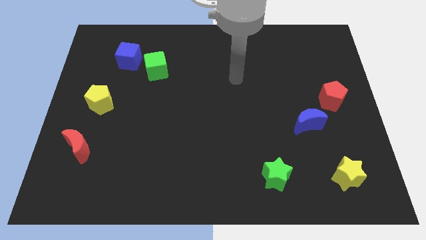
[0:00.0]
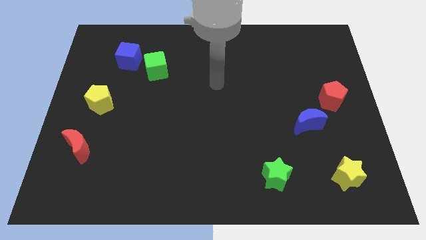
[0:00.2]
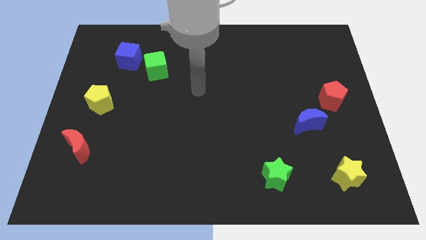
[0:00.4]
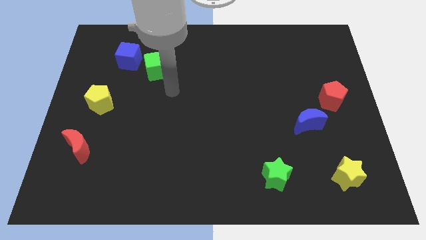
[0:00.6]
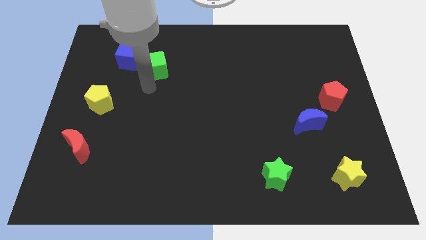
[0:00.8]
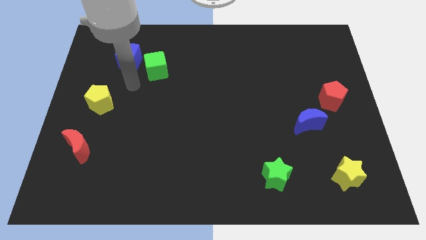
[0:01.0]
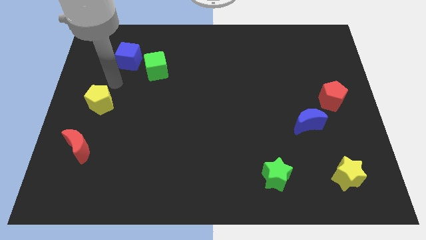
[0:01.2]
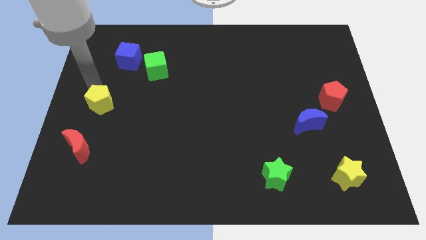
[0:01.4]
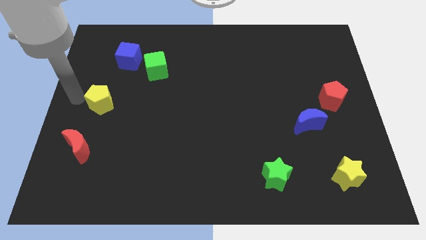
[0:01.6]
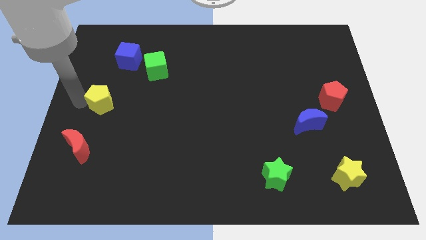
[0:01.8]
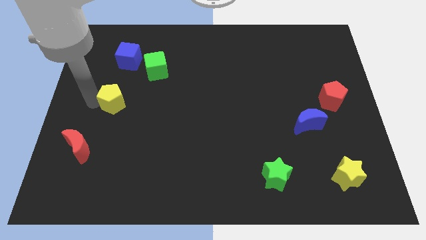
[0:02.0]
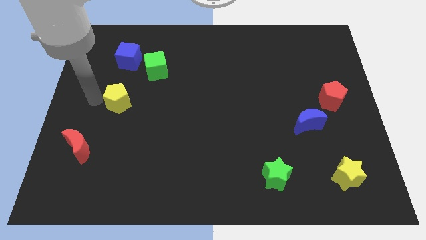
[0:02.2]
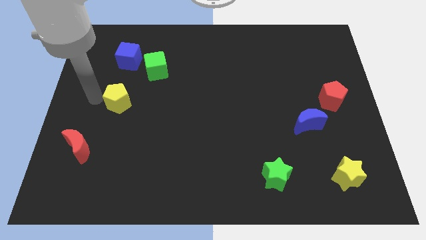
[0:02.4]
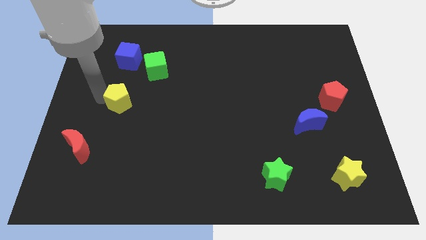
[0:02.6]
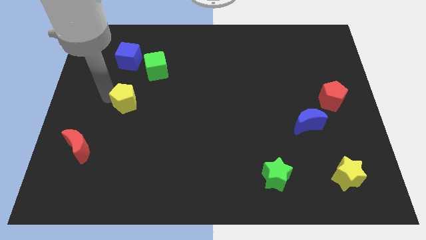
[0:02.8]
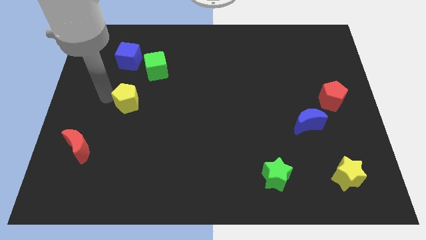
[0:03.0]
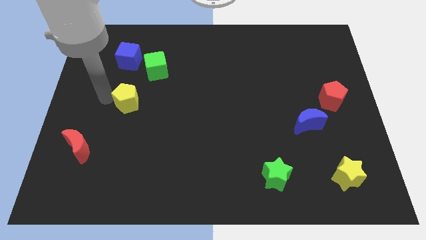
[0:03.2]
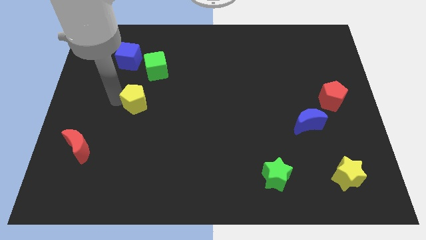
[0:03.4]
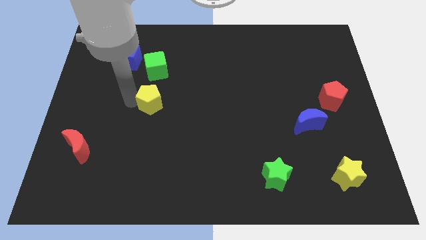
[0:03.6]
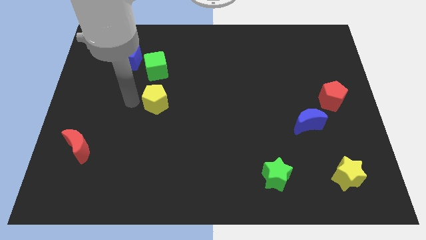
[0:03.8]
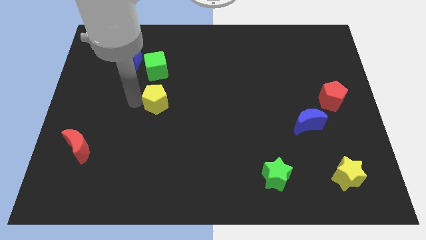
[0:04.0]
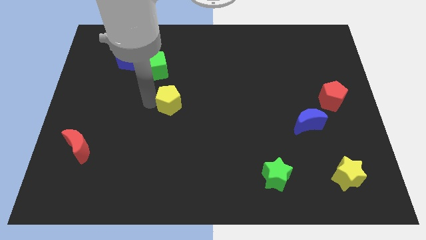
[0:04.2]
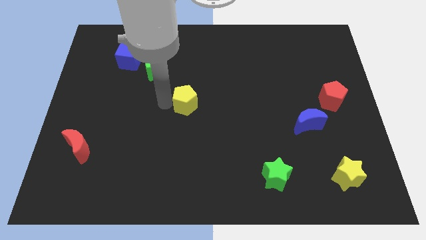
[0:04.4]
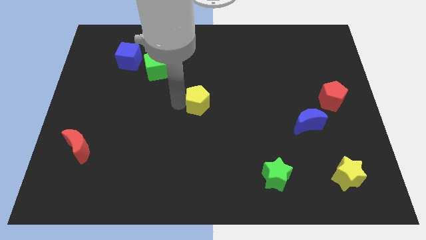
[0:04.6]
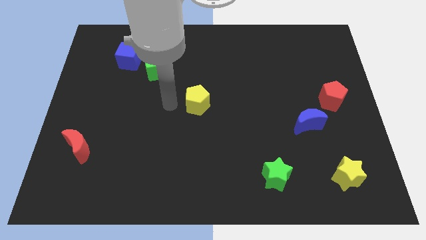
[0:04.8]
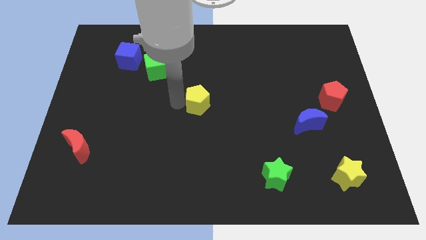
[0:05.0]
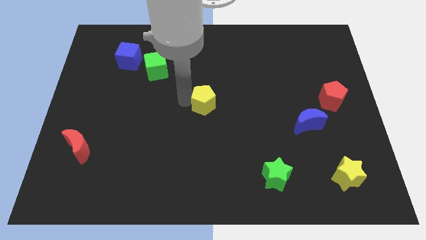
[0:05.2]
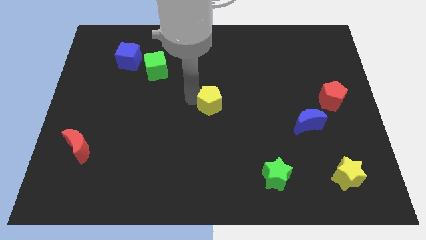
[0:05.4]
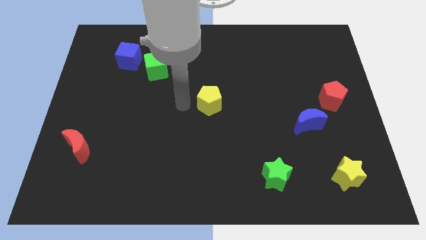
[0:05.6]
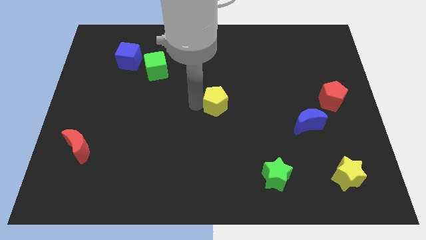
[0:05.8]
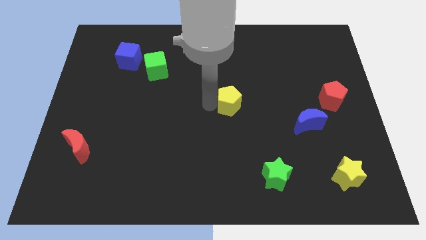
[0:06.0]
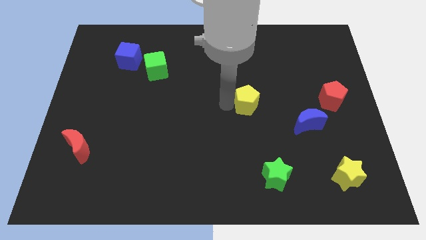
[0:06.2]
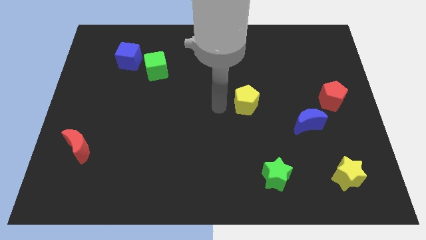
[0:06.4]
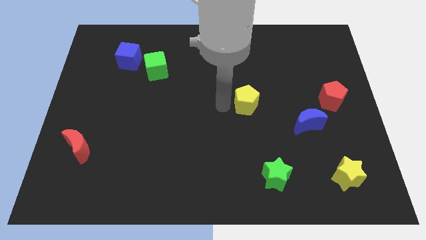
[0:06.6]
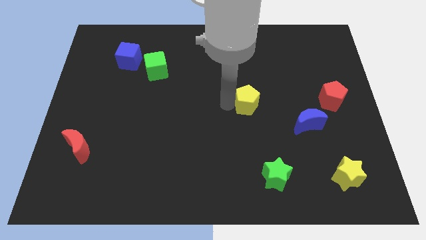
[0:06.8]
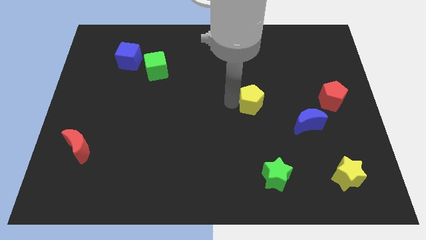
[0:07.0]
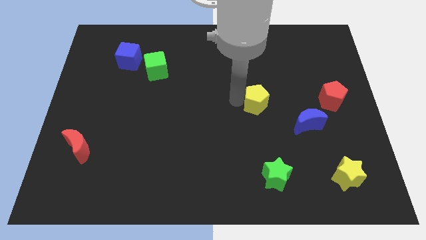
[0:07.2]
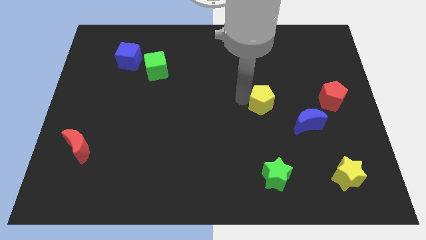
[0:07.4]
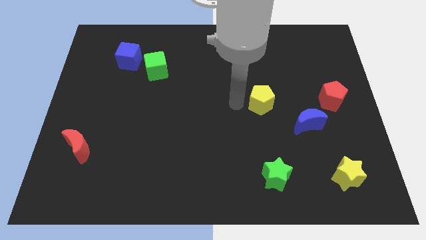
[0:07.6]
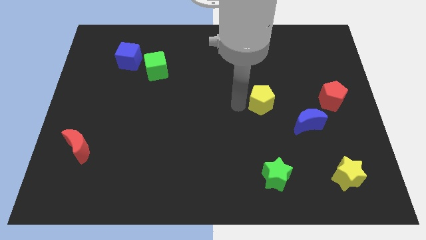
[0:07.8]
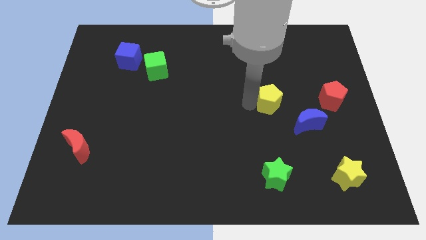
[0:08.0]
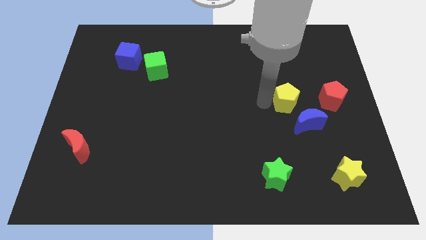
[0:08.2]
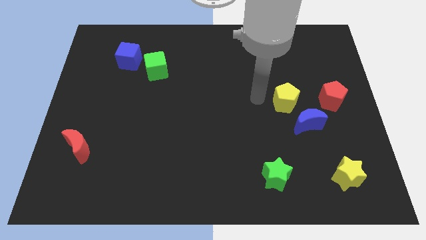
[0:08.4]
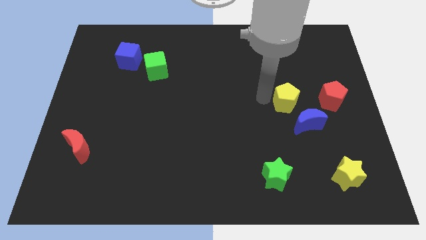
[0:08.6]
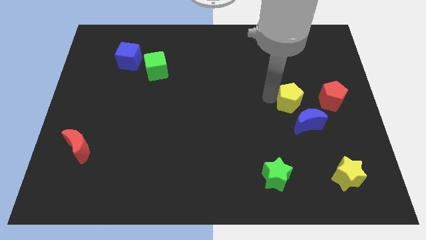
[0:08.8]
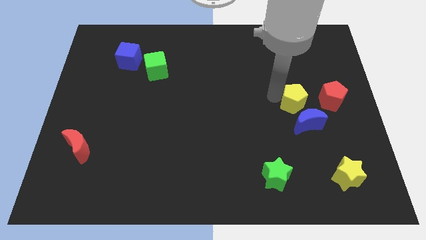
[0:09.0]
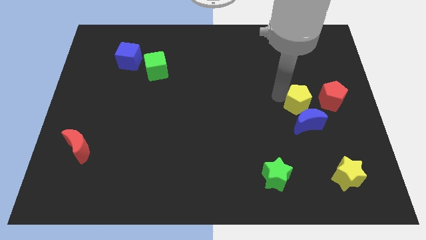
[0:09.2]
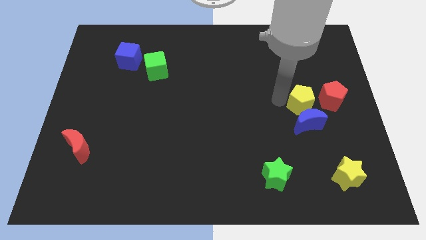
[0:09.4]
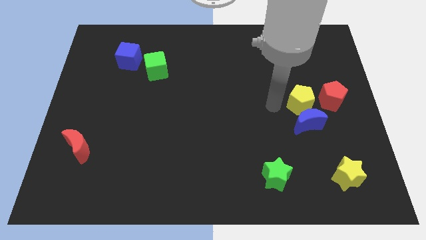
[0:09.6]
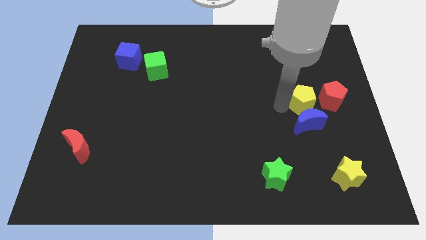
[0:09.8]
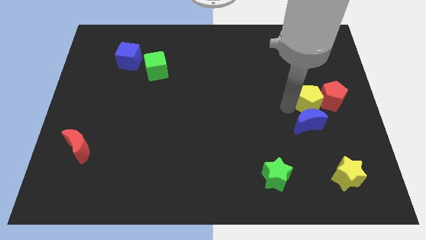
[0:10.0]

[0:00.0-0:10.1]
put the yellow pentagon next to the red pentagon

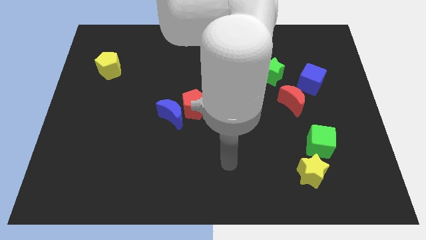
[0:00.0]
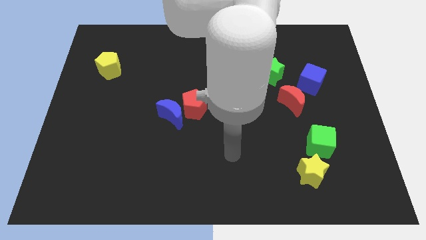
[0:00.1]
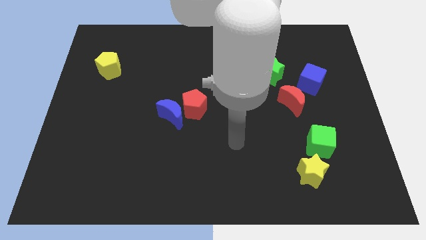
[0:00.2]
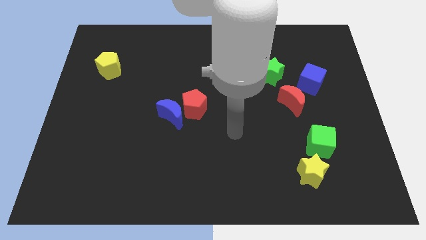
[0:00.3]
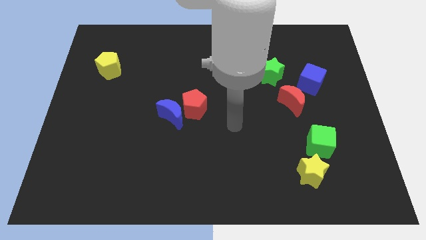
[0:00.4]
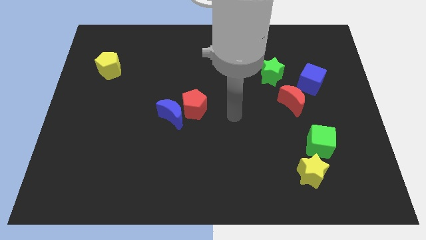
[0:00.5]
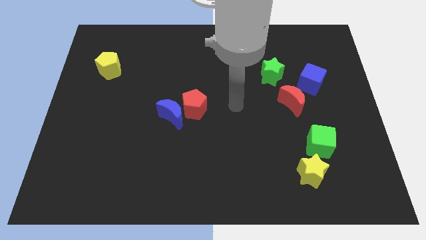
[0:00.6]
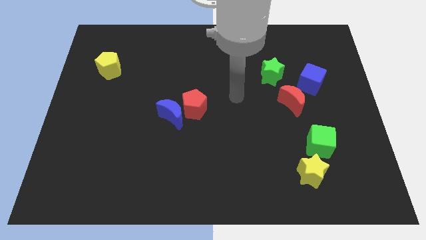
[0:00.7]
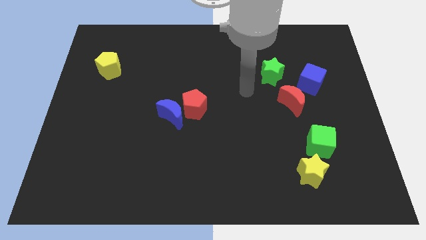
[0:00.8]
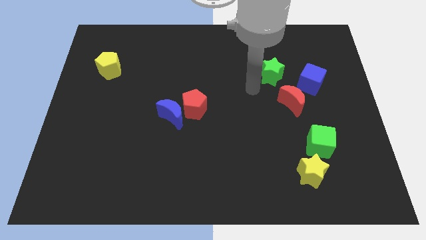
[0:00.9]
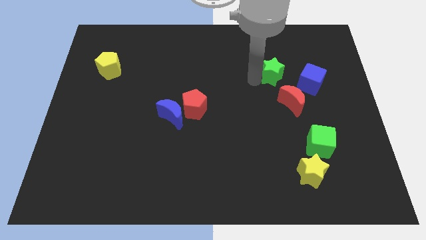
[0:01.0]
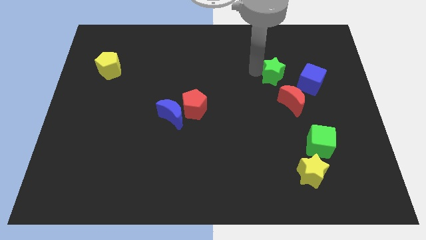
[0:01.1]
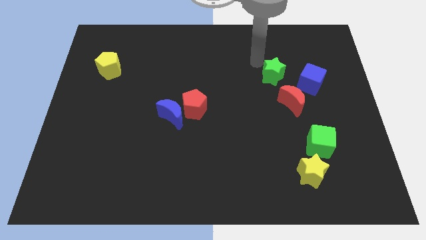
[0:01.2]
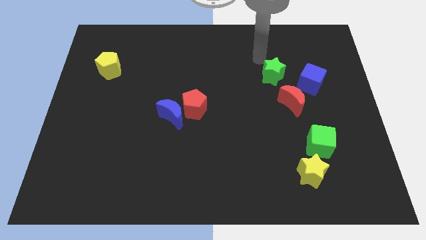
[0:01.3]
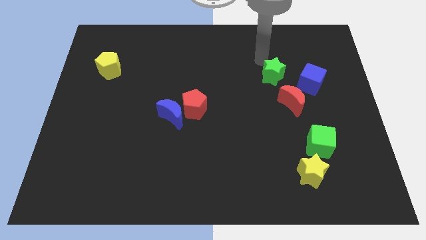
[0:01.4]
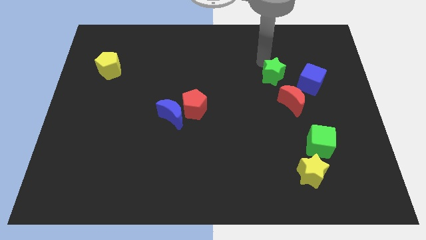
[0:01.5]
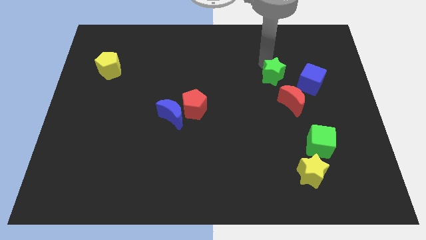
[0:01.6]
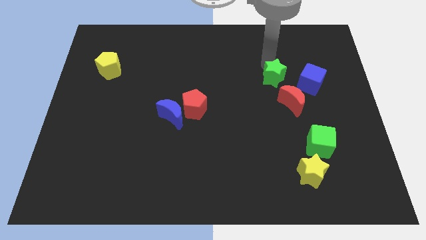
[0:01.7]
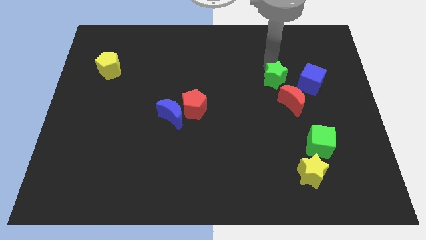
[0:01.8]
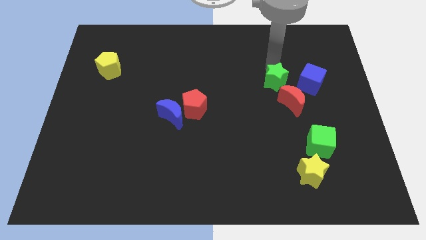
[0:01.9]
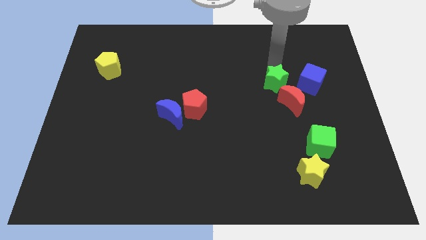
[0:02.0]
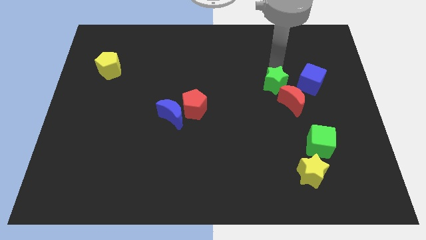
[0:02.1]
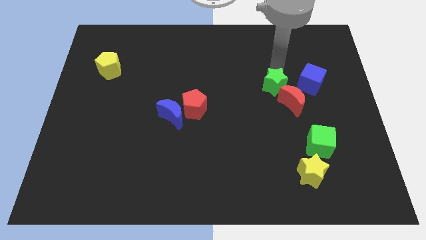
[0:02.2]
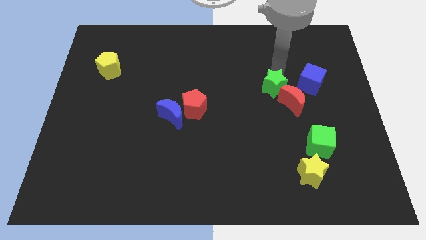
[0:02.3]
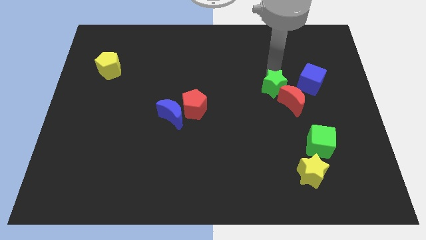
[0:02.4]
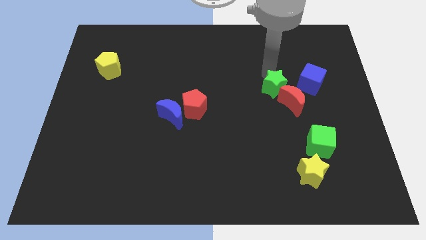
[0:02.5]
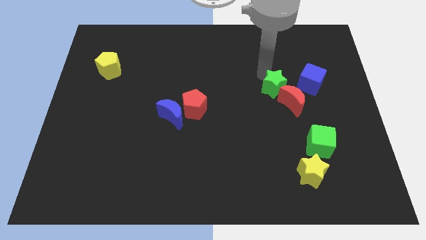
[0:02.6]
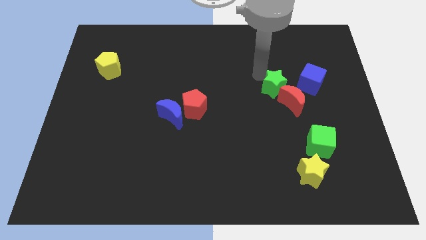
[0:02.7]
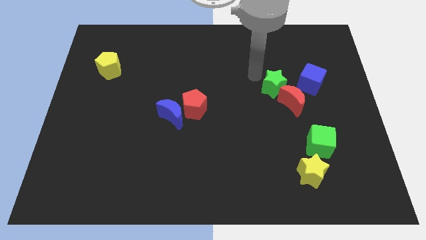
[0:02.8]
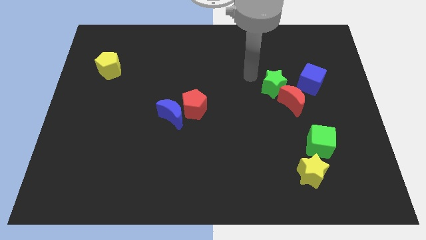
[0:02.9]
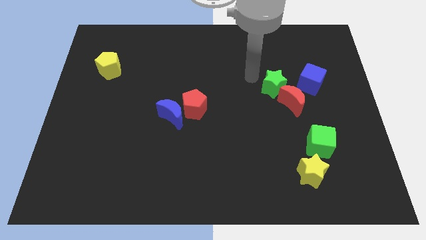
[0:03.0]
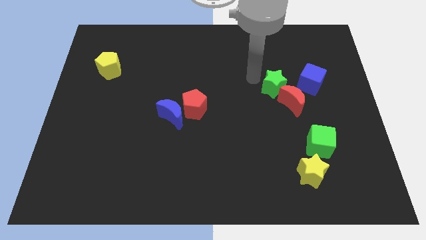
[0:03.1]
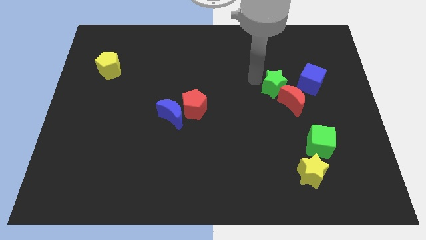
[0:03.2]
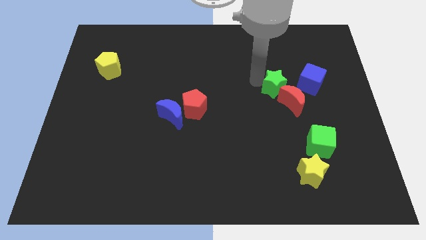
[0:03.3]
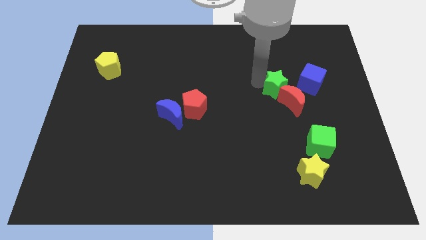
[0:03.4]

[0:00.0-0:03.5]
put the green star to the red moon
